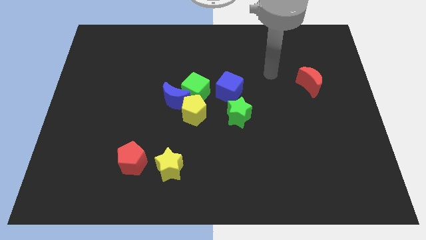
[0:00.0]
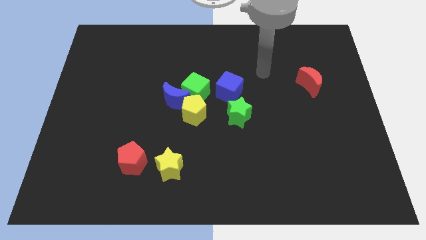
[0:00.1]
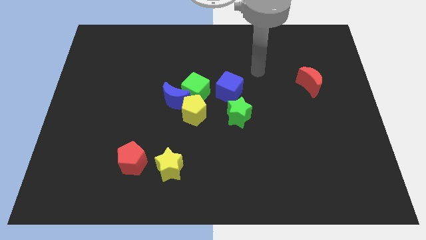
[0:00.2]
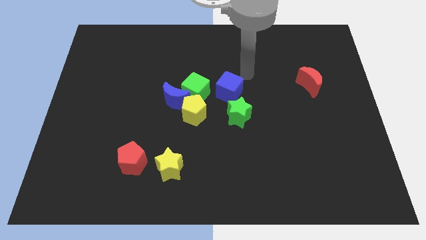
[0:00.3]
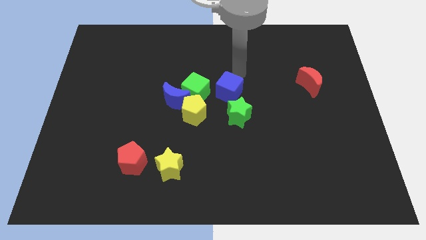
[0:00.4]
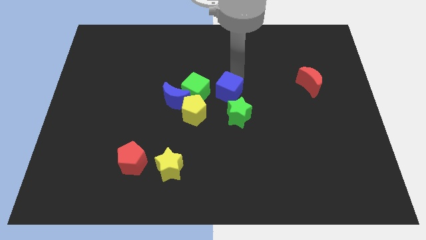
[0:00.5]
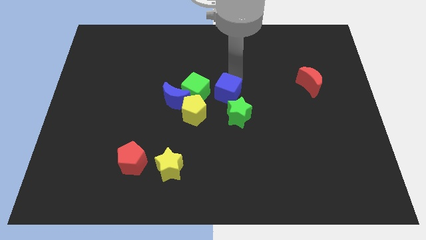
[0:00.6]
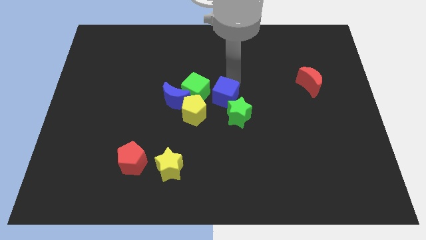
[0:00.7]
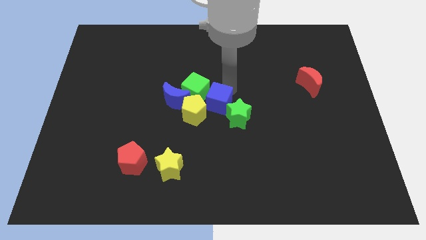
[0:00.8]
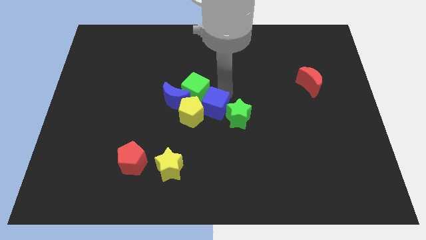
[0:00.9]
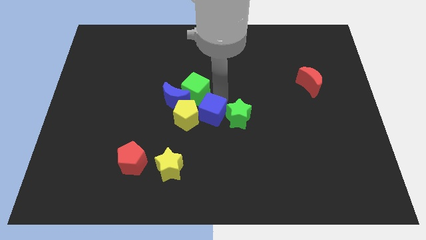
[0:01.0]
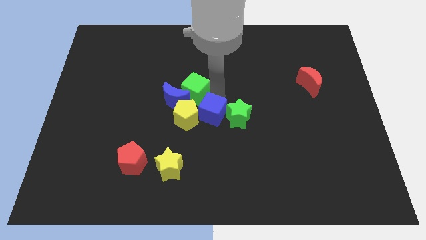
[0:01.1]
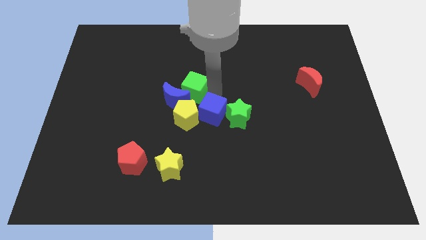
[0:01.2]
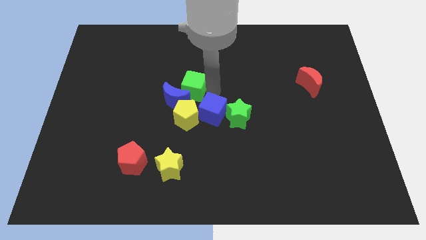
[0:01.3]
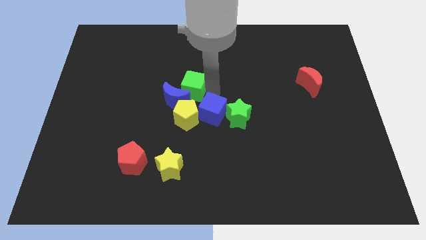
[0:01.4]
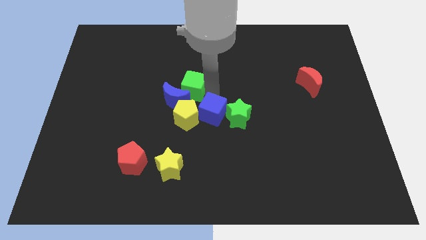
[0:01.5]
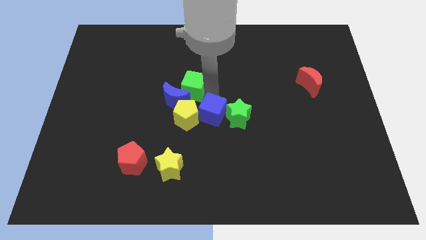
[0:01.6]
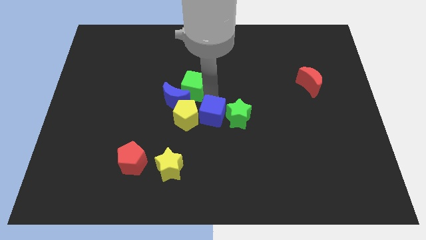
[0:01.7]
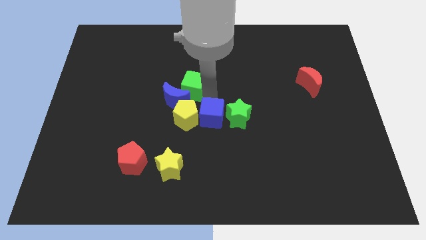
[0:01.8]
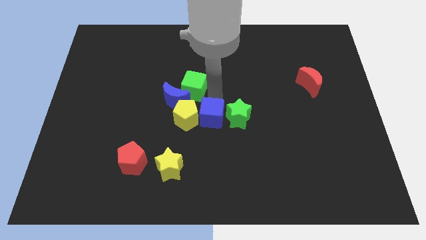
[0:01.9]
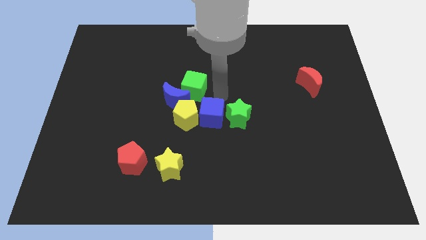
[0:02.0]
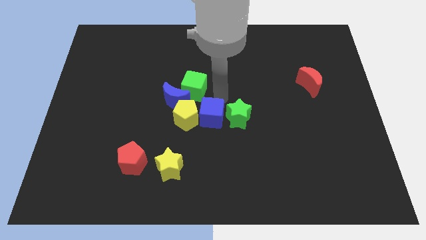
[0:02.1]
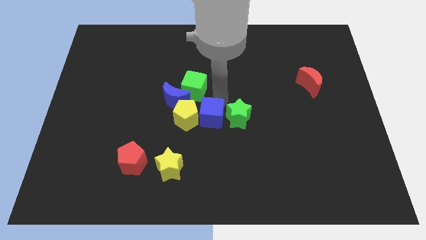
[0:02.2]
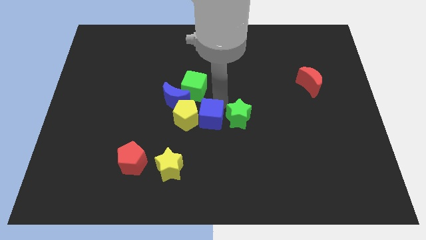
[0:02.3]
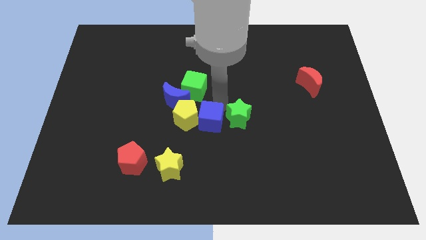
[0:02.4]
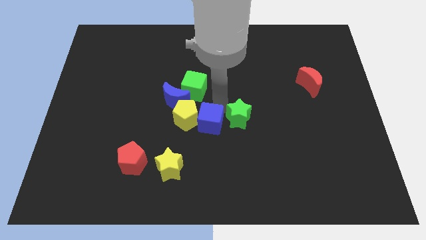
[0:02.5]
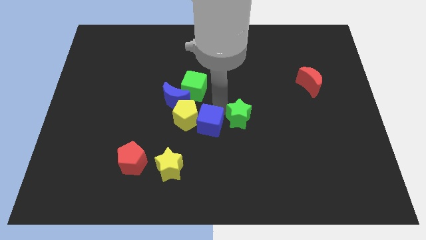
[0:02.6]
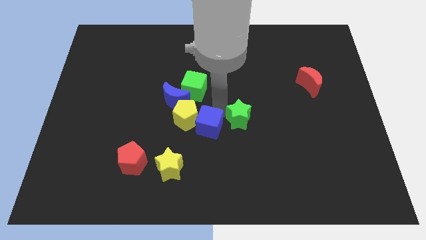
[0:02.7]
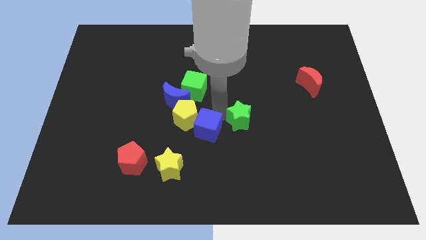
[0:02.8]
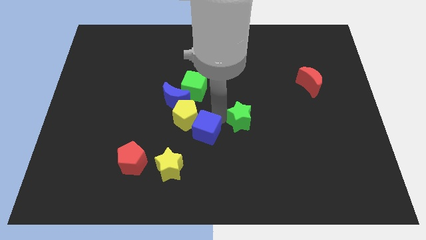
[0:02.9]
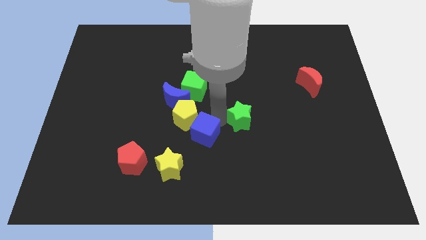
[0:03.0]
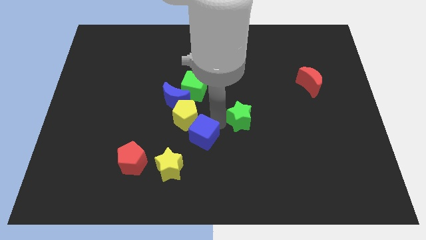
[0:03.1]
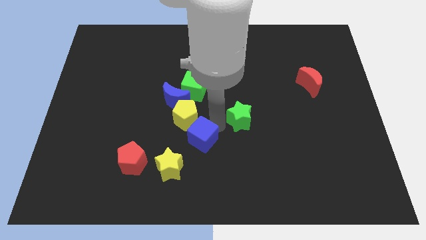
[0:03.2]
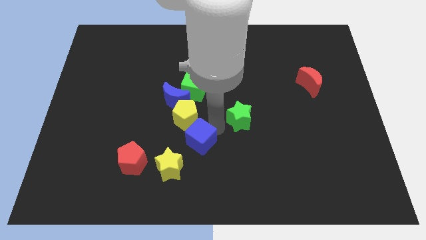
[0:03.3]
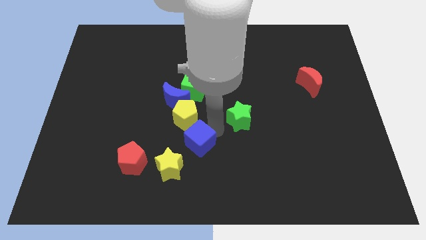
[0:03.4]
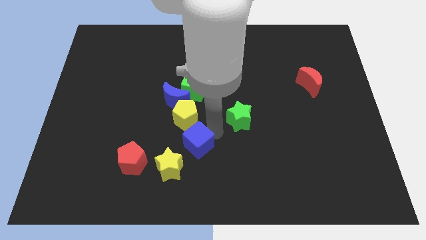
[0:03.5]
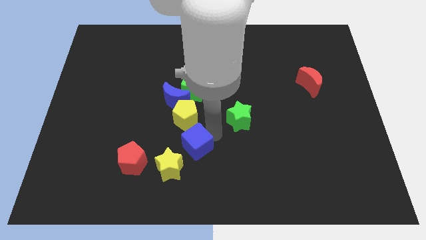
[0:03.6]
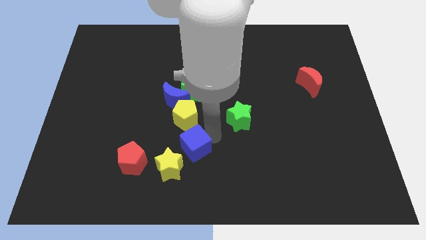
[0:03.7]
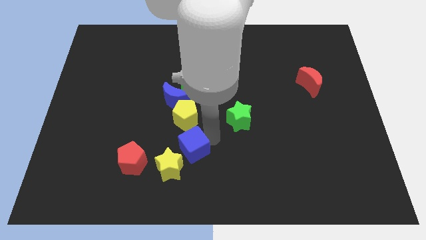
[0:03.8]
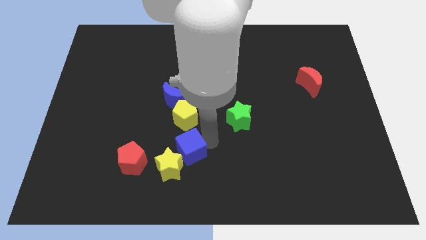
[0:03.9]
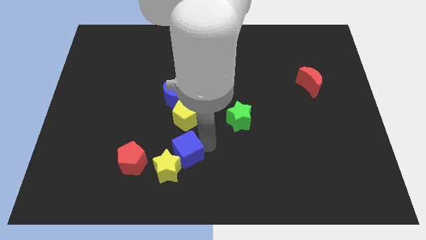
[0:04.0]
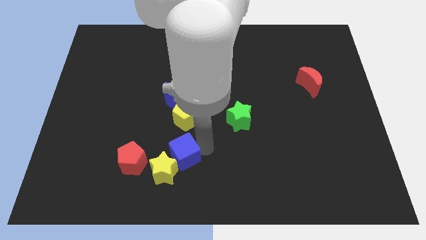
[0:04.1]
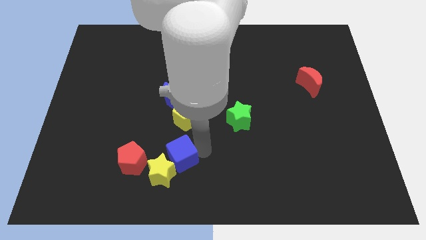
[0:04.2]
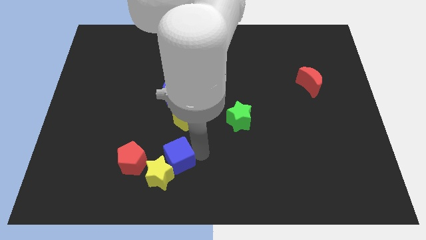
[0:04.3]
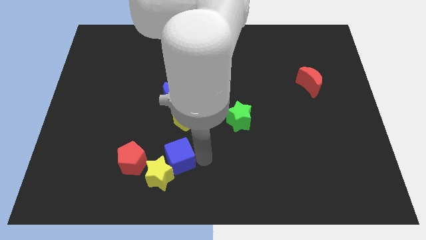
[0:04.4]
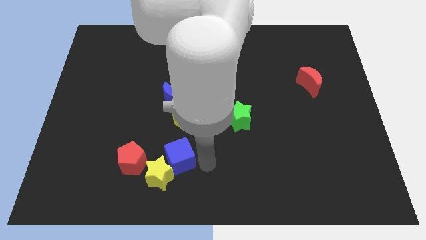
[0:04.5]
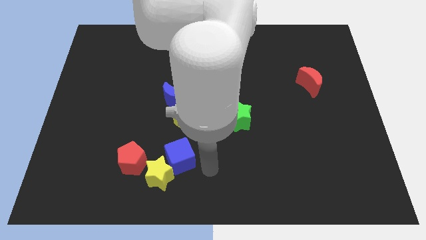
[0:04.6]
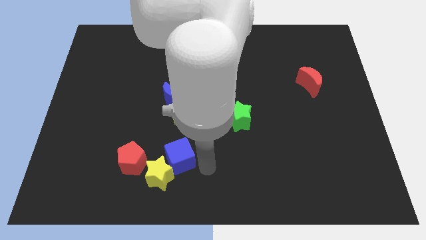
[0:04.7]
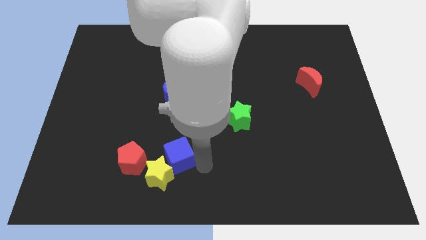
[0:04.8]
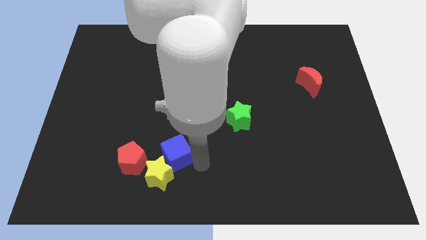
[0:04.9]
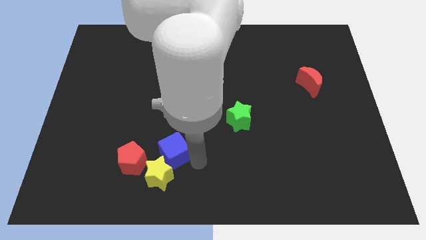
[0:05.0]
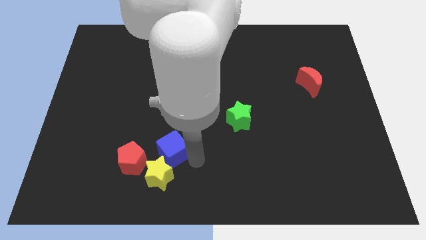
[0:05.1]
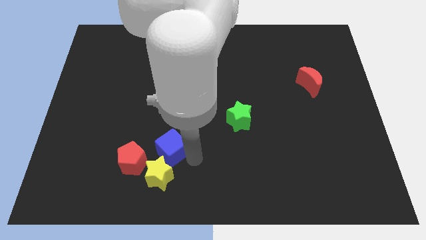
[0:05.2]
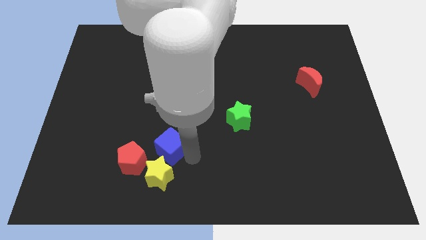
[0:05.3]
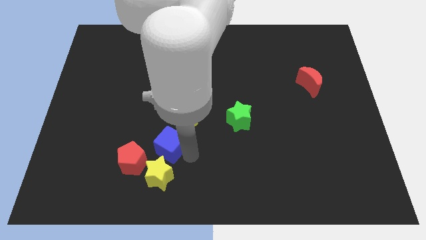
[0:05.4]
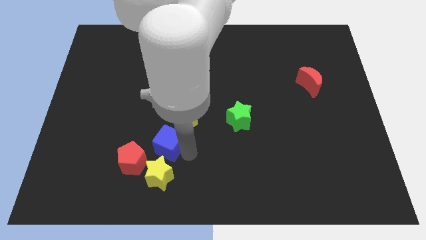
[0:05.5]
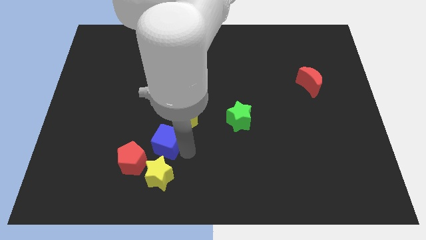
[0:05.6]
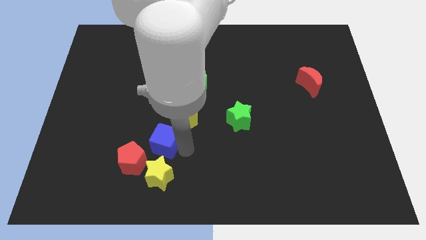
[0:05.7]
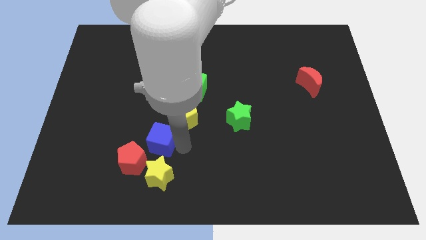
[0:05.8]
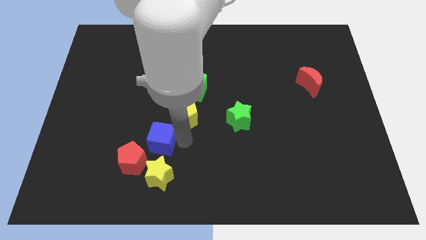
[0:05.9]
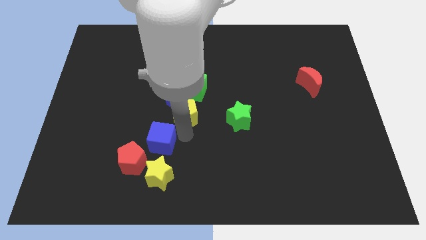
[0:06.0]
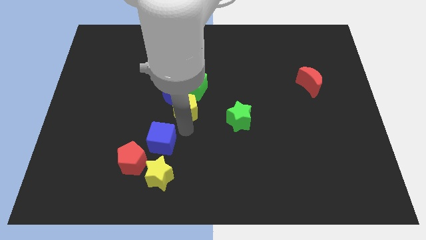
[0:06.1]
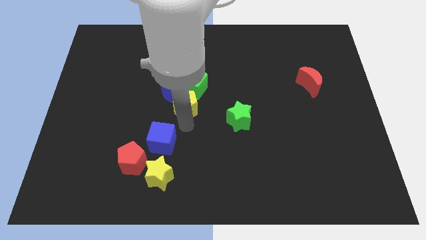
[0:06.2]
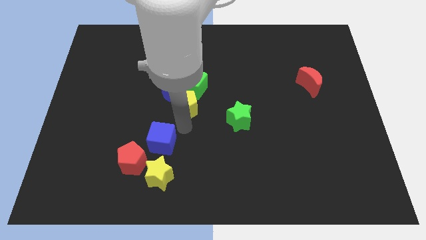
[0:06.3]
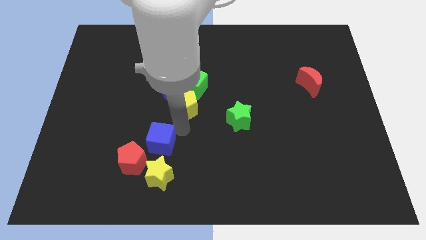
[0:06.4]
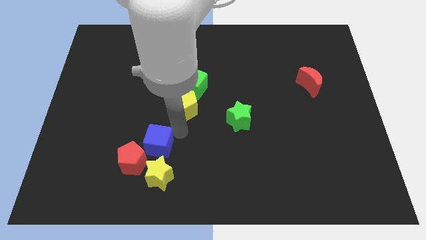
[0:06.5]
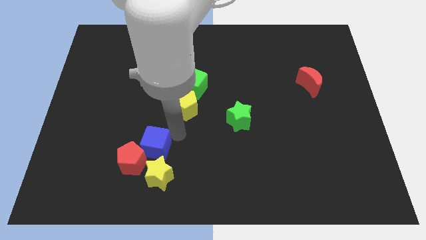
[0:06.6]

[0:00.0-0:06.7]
push the blue cube close to the red pentagon
